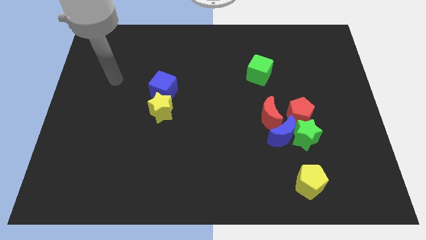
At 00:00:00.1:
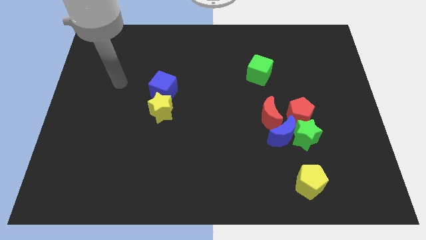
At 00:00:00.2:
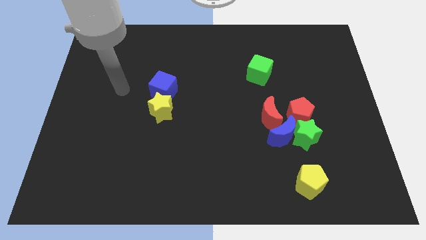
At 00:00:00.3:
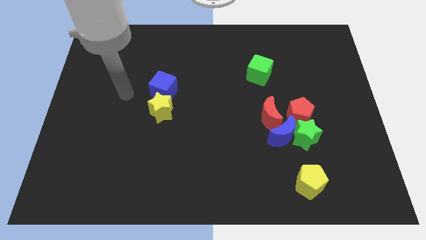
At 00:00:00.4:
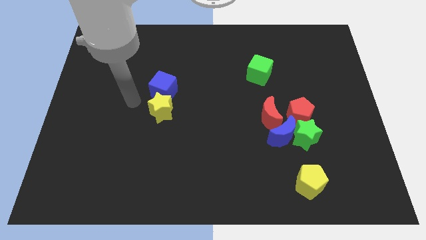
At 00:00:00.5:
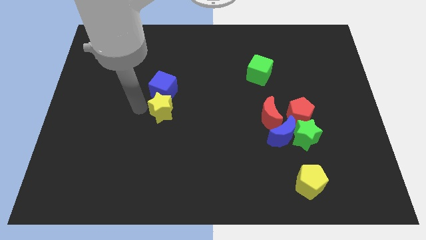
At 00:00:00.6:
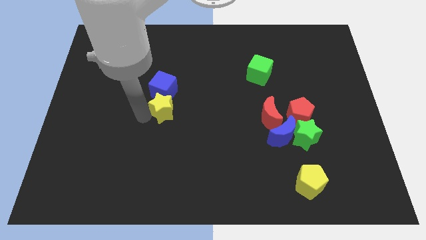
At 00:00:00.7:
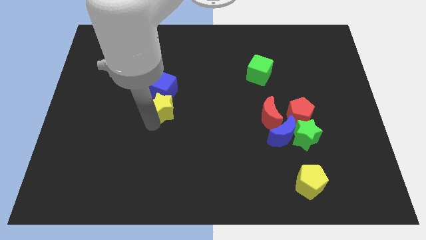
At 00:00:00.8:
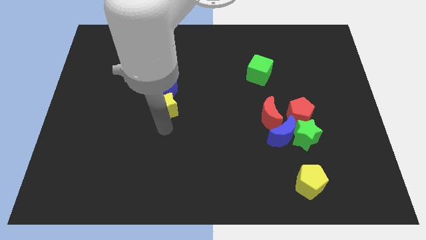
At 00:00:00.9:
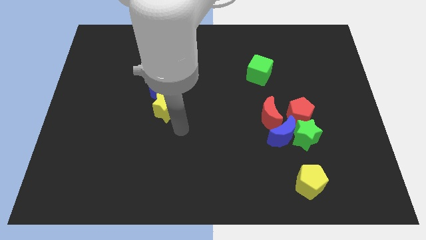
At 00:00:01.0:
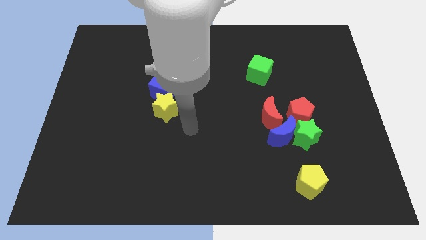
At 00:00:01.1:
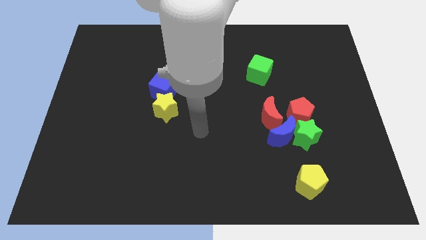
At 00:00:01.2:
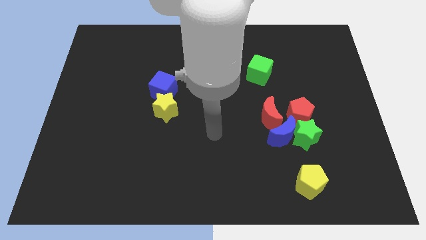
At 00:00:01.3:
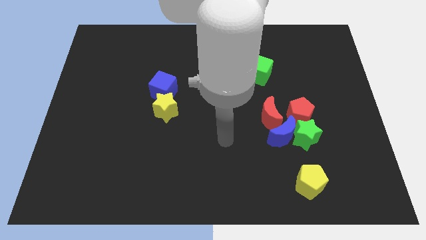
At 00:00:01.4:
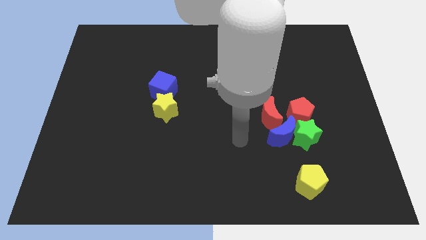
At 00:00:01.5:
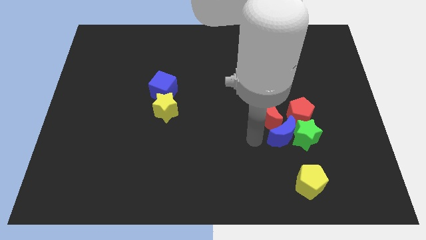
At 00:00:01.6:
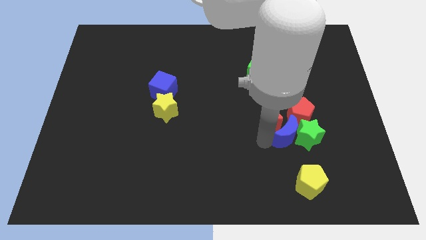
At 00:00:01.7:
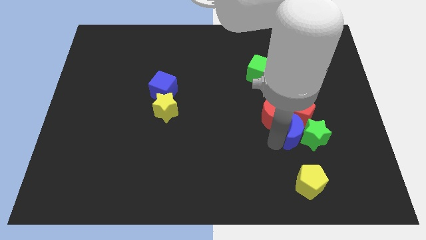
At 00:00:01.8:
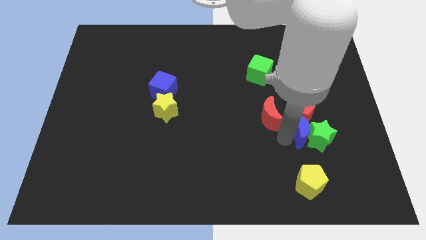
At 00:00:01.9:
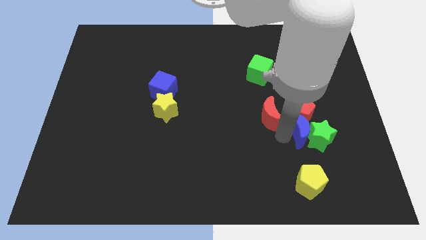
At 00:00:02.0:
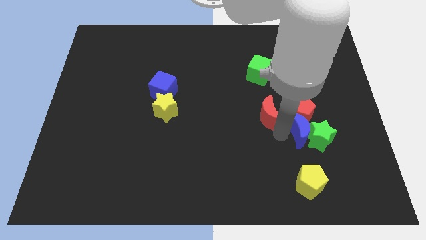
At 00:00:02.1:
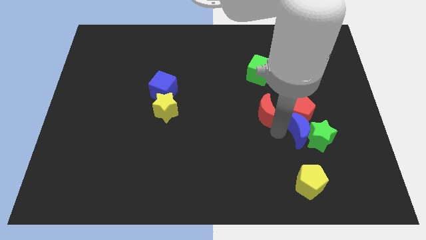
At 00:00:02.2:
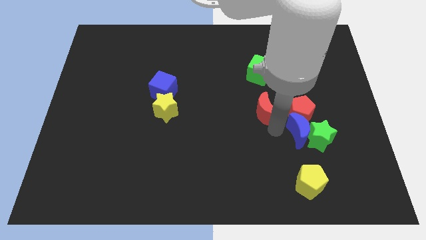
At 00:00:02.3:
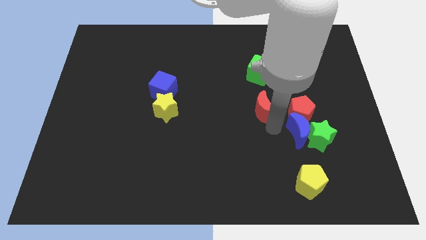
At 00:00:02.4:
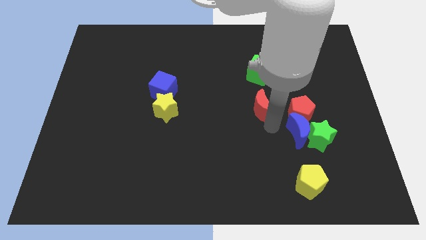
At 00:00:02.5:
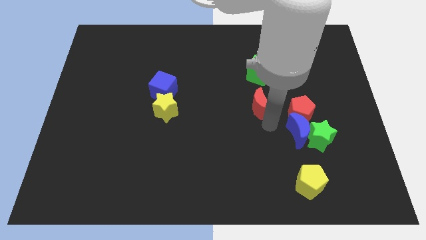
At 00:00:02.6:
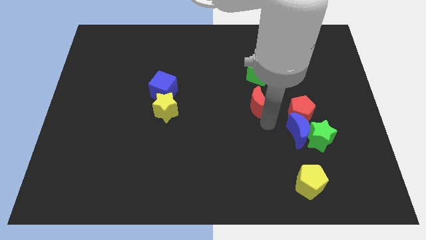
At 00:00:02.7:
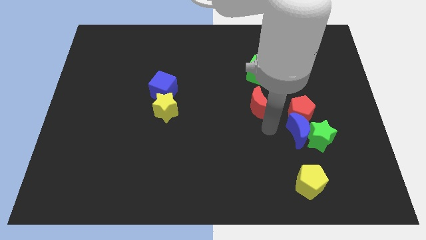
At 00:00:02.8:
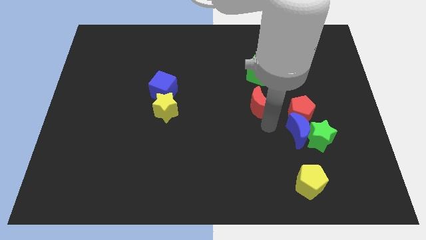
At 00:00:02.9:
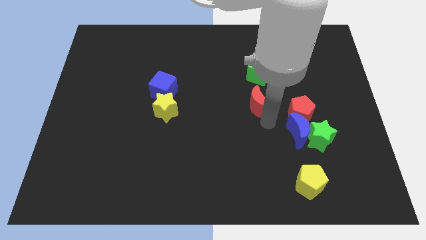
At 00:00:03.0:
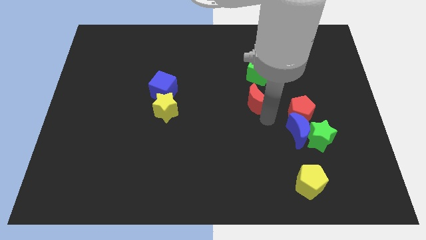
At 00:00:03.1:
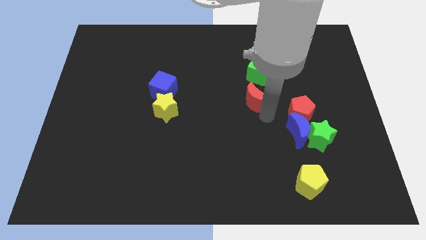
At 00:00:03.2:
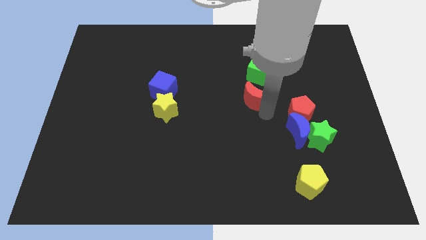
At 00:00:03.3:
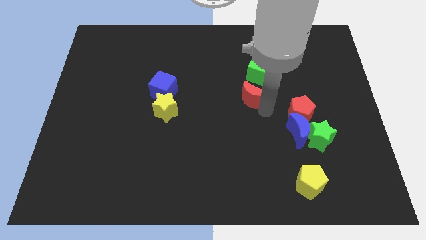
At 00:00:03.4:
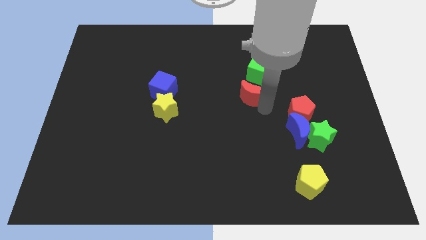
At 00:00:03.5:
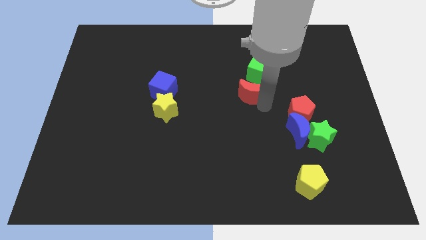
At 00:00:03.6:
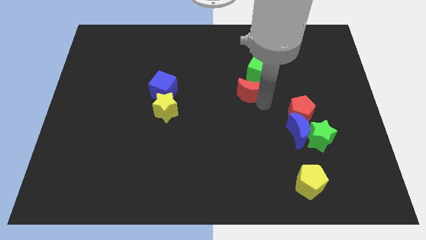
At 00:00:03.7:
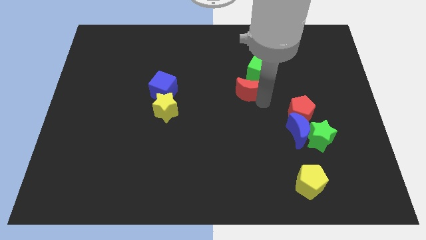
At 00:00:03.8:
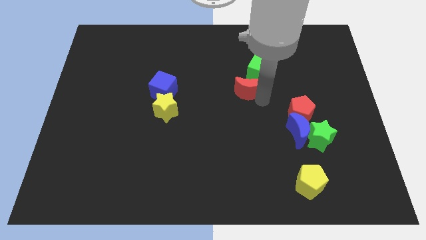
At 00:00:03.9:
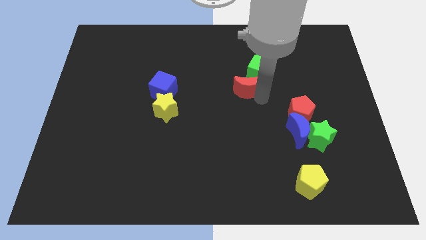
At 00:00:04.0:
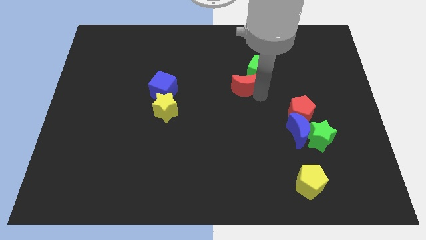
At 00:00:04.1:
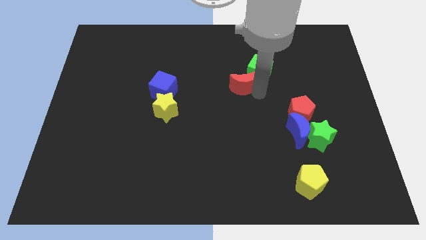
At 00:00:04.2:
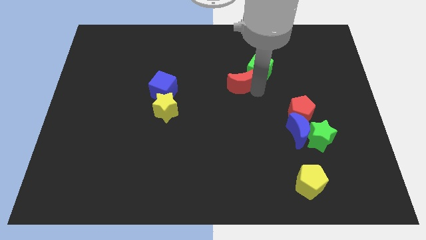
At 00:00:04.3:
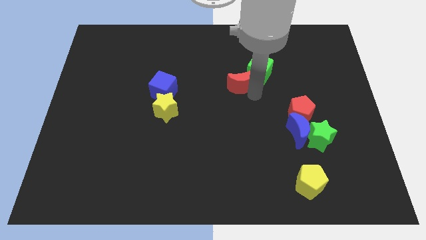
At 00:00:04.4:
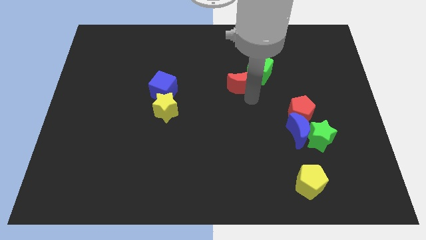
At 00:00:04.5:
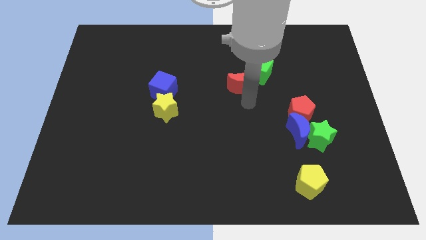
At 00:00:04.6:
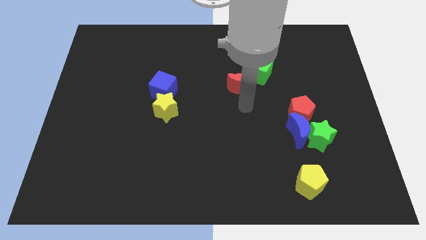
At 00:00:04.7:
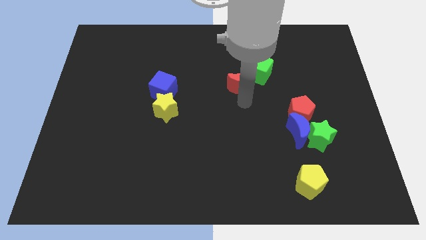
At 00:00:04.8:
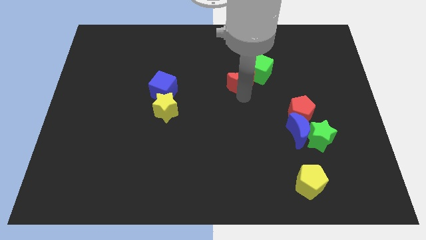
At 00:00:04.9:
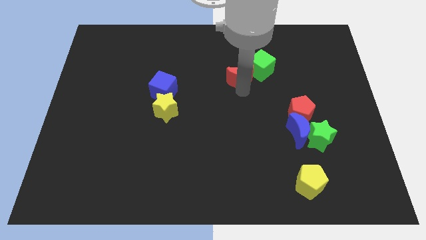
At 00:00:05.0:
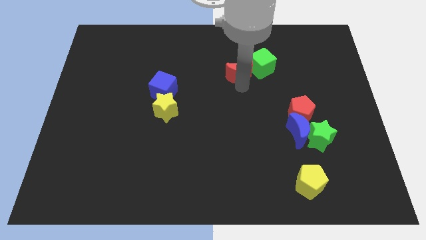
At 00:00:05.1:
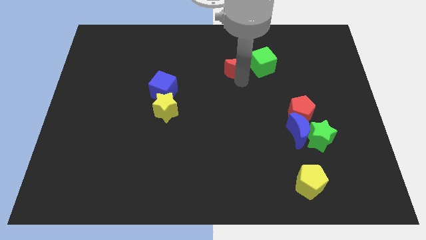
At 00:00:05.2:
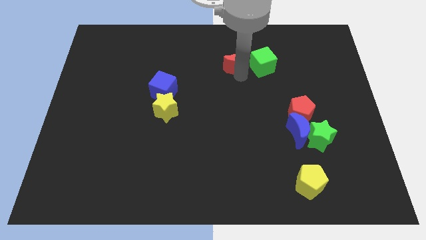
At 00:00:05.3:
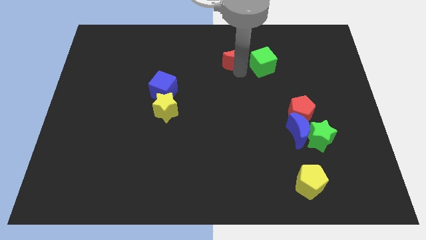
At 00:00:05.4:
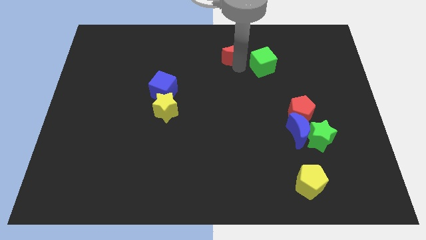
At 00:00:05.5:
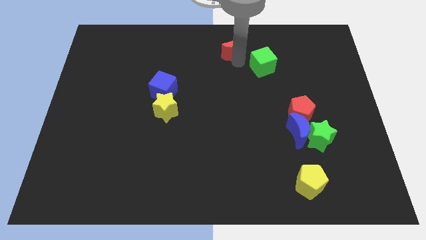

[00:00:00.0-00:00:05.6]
push the red moon to the towards your base
